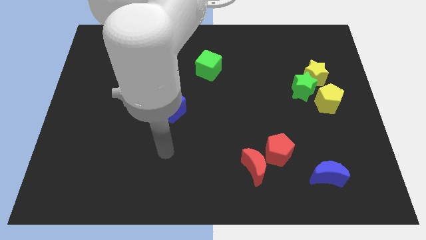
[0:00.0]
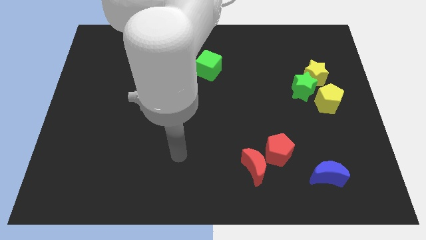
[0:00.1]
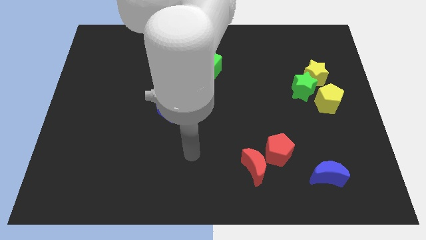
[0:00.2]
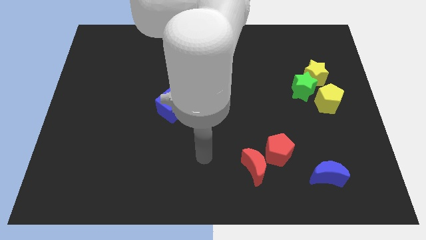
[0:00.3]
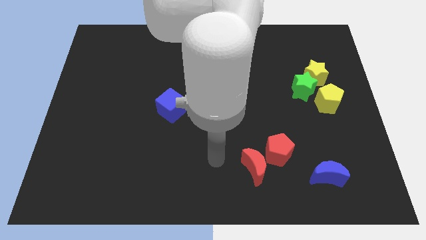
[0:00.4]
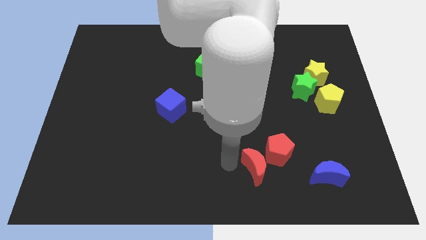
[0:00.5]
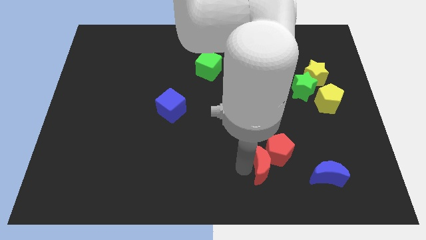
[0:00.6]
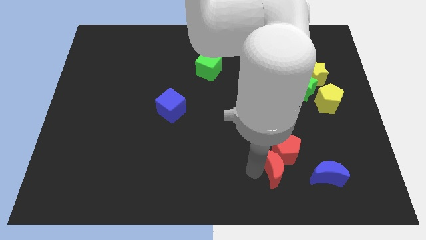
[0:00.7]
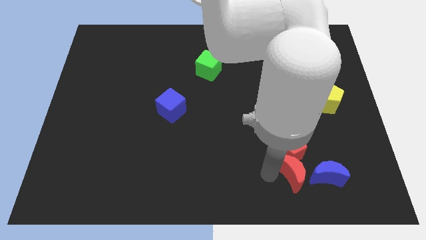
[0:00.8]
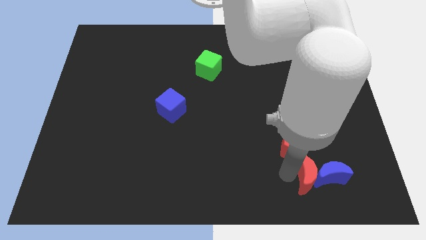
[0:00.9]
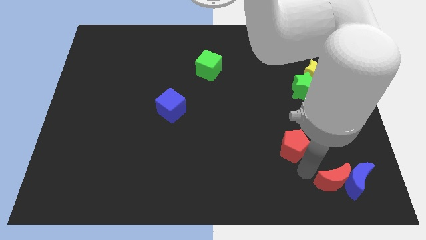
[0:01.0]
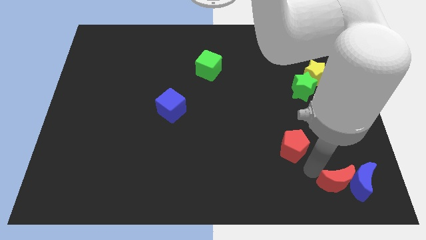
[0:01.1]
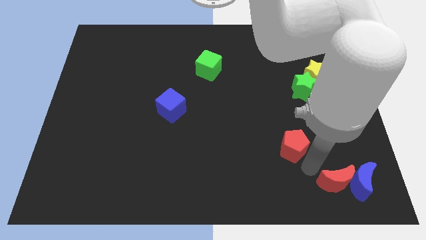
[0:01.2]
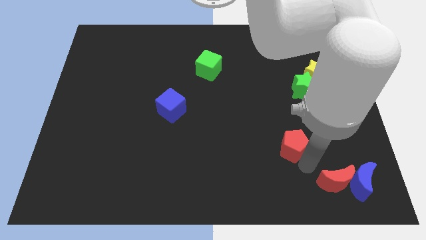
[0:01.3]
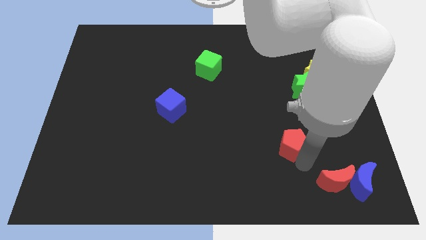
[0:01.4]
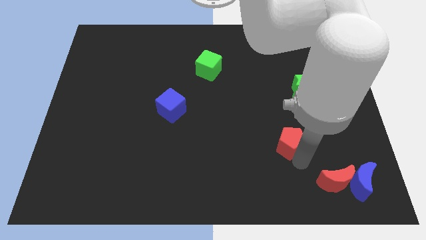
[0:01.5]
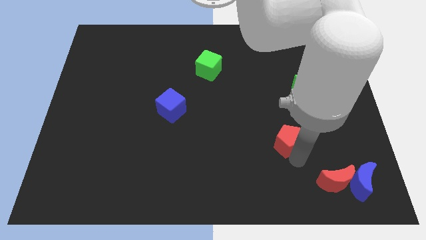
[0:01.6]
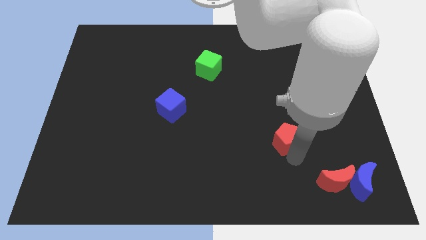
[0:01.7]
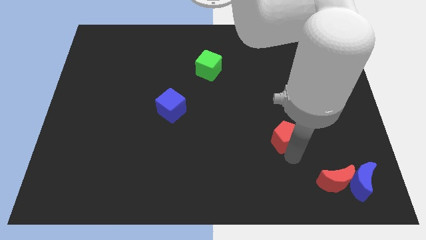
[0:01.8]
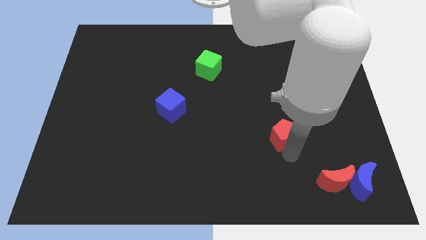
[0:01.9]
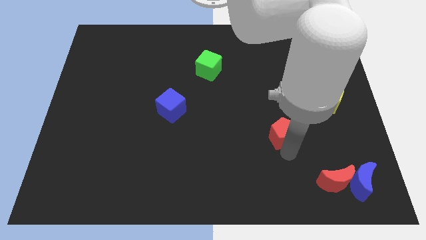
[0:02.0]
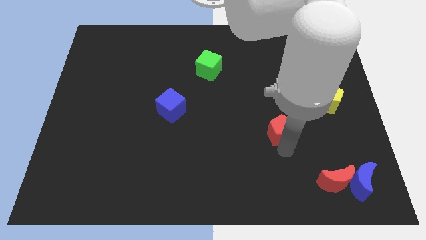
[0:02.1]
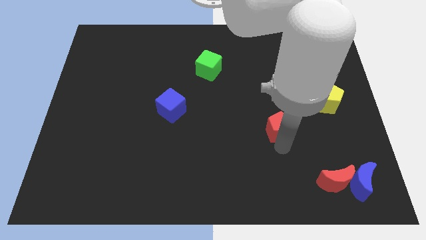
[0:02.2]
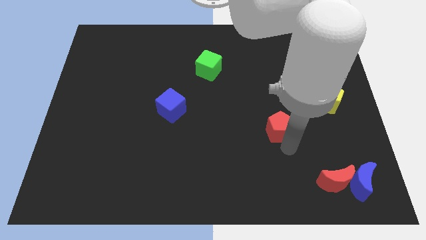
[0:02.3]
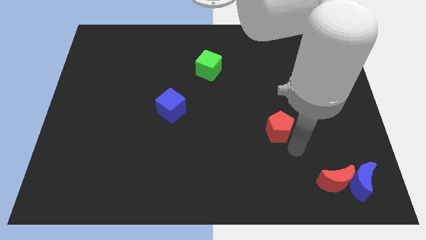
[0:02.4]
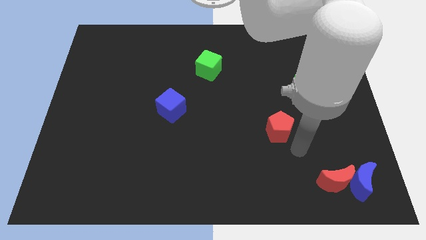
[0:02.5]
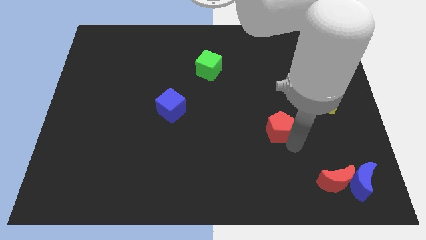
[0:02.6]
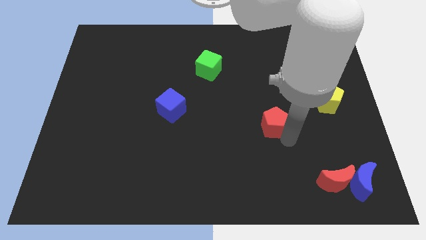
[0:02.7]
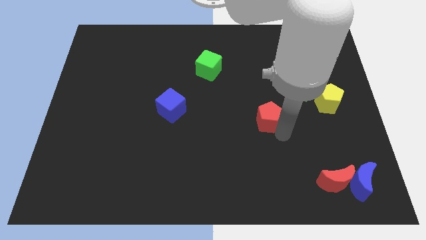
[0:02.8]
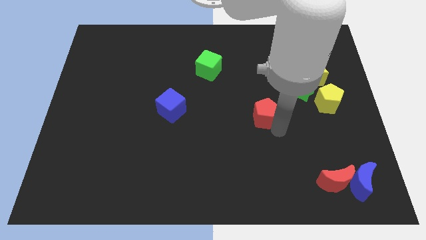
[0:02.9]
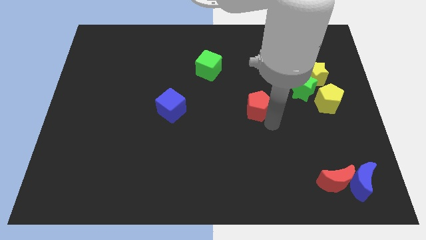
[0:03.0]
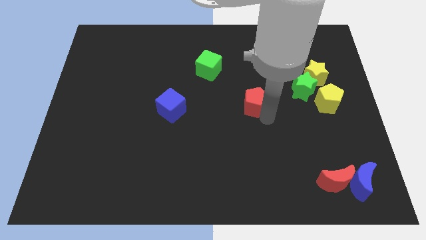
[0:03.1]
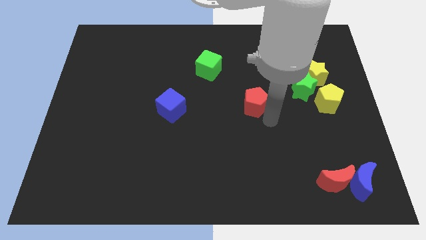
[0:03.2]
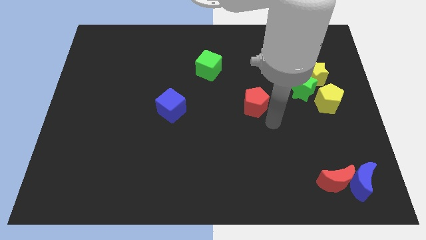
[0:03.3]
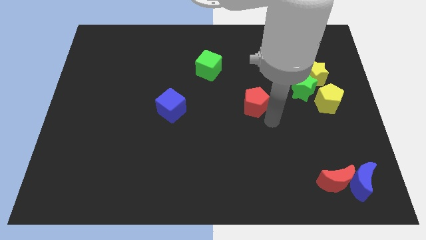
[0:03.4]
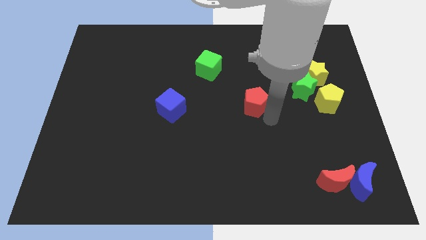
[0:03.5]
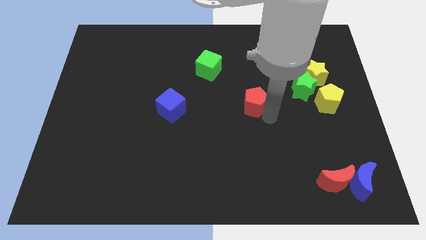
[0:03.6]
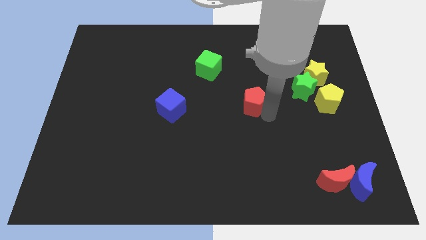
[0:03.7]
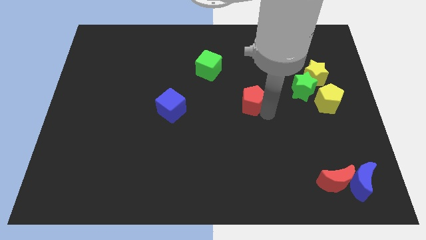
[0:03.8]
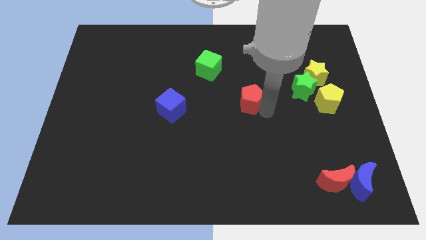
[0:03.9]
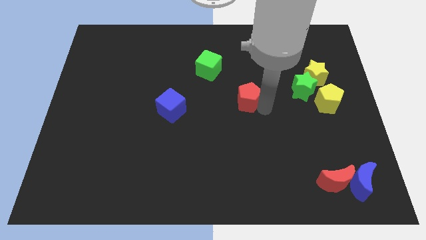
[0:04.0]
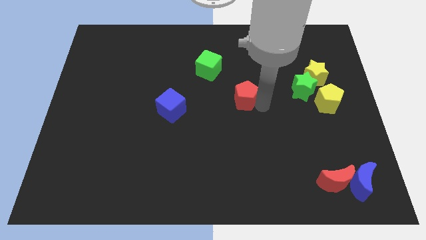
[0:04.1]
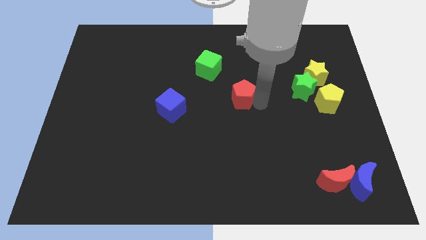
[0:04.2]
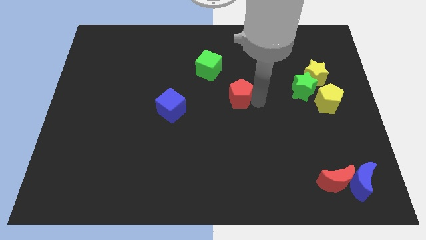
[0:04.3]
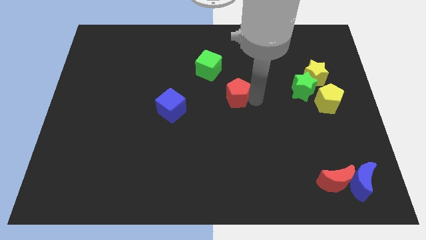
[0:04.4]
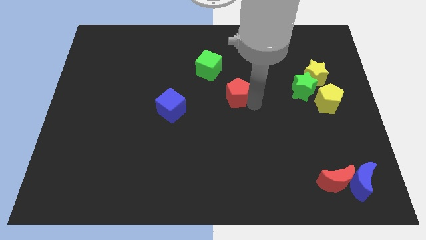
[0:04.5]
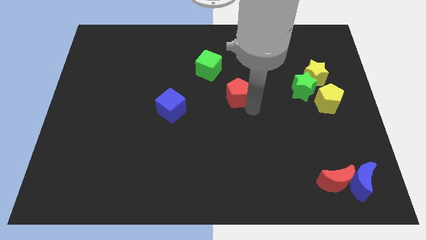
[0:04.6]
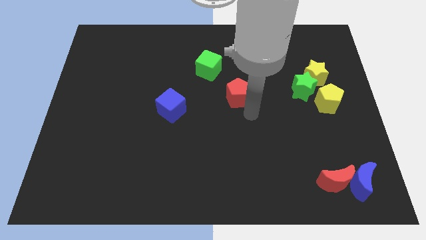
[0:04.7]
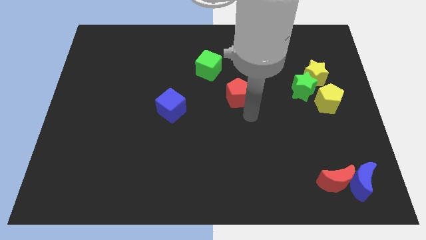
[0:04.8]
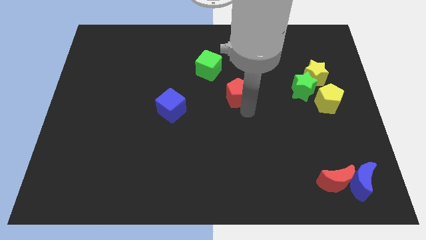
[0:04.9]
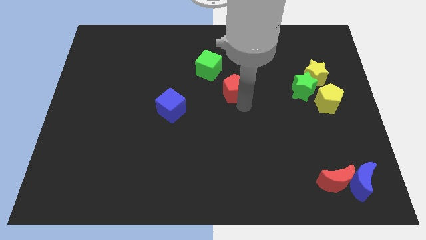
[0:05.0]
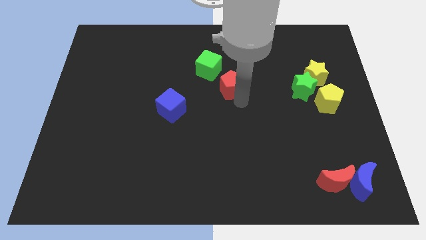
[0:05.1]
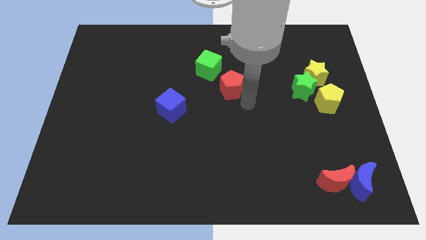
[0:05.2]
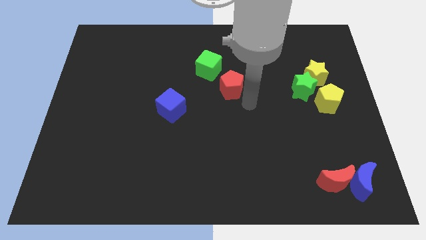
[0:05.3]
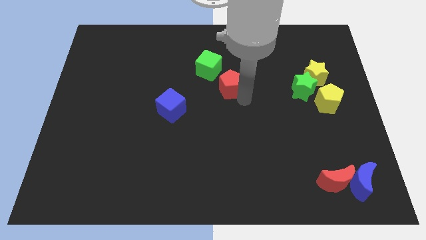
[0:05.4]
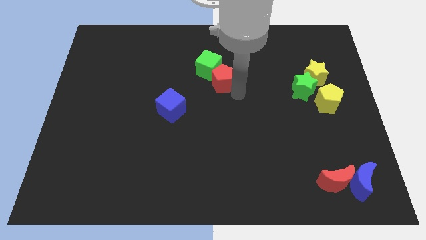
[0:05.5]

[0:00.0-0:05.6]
move the red pentagon next to the green cube

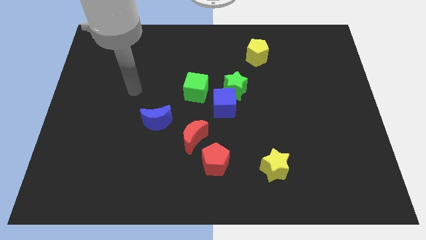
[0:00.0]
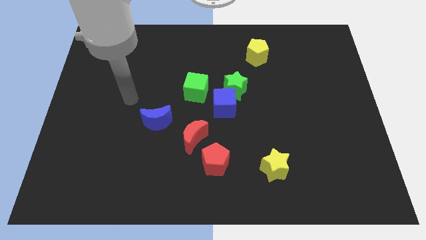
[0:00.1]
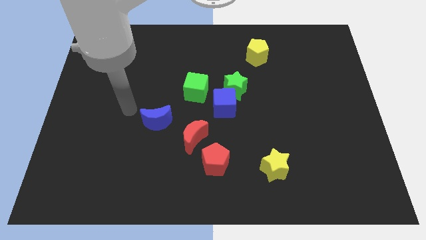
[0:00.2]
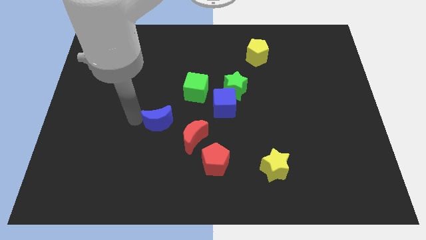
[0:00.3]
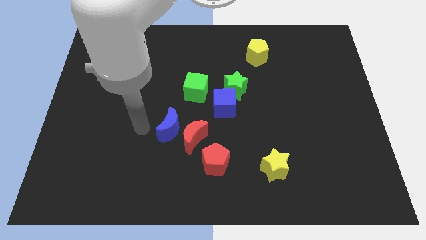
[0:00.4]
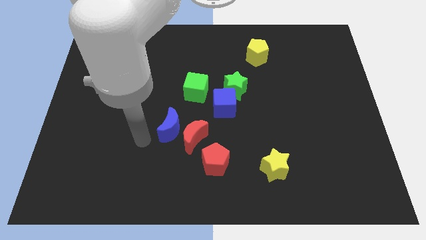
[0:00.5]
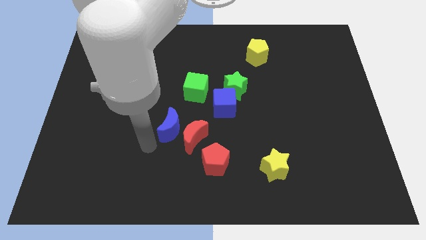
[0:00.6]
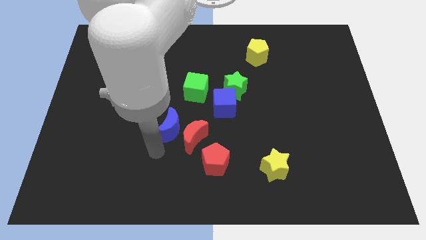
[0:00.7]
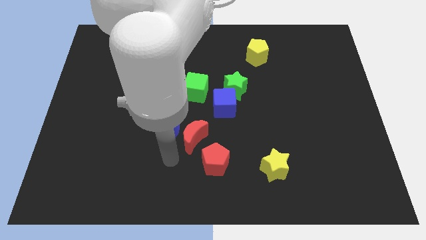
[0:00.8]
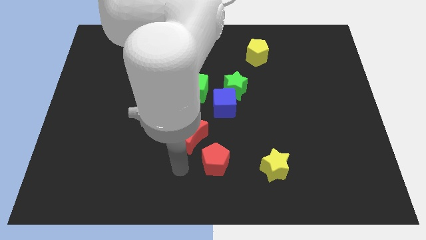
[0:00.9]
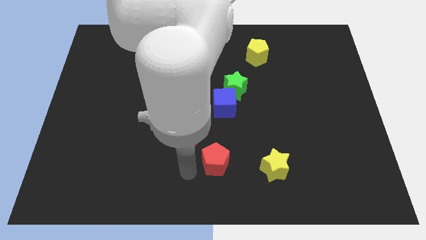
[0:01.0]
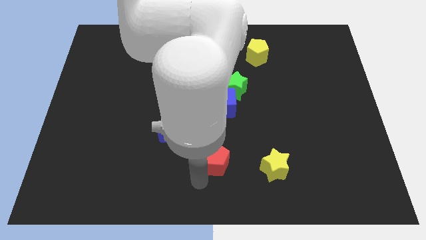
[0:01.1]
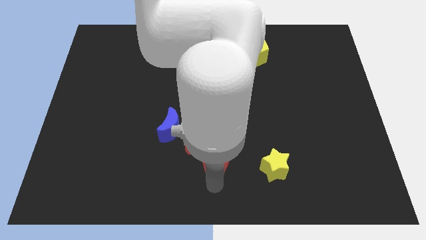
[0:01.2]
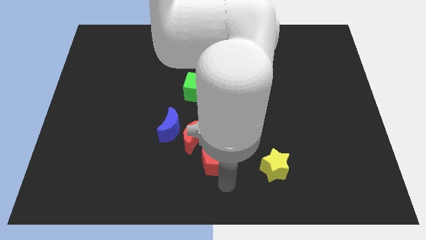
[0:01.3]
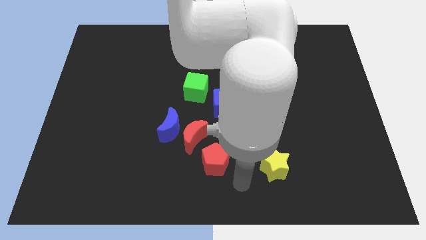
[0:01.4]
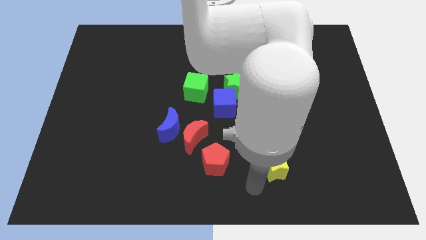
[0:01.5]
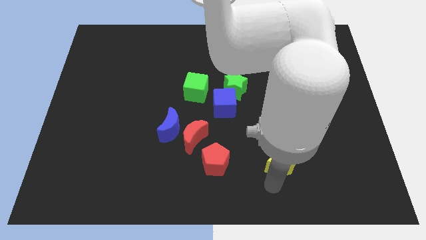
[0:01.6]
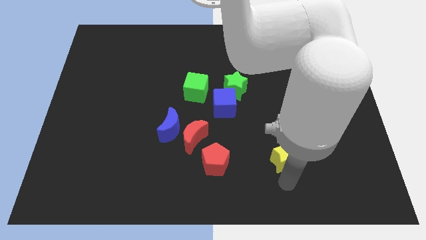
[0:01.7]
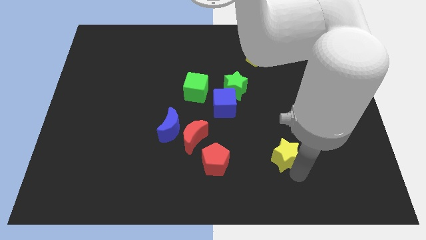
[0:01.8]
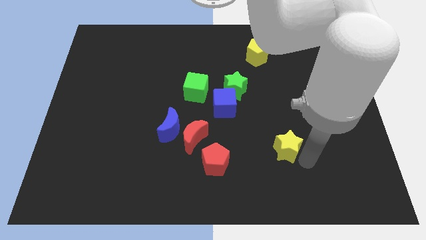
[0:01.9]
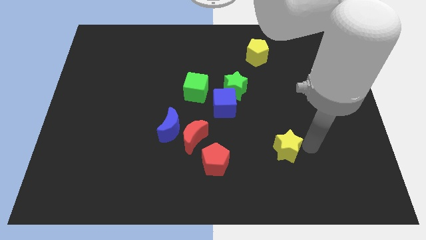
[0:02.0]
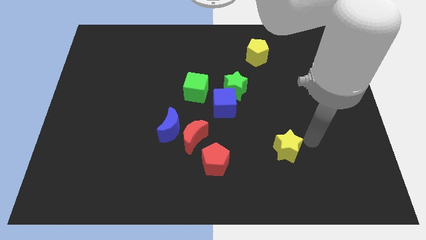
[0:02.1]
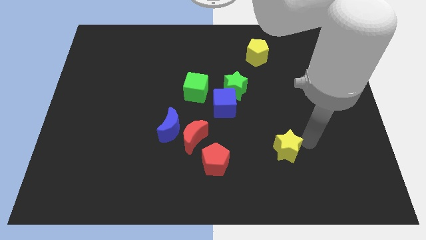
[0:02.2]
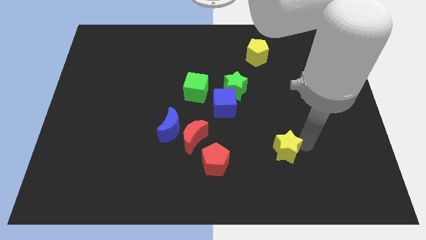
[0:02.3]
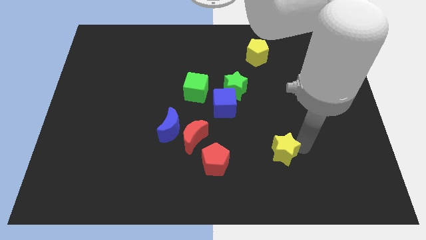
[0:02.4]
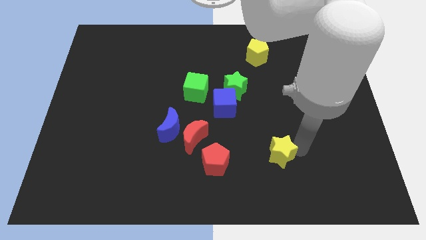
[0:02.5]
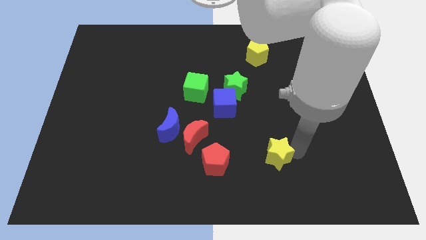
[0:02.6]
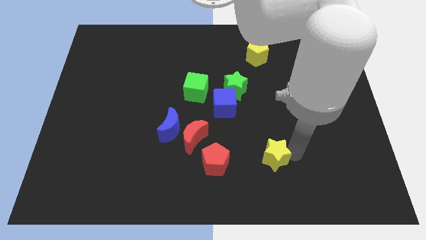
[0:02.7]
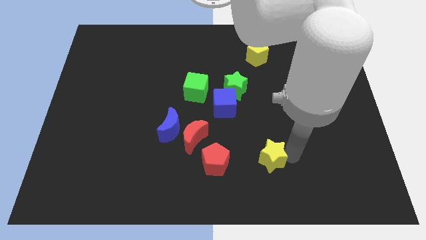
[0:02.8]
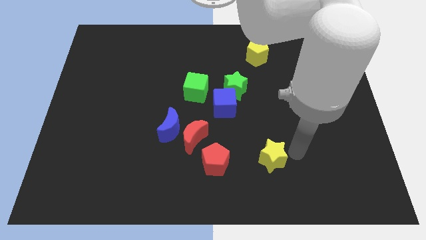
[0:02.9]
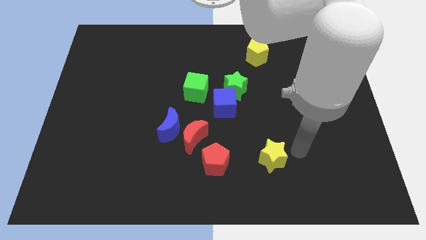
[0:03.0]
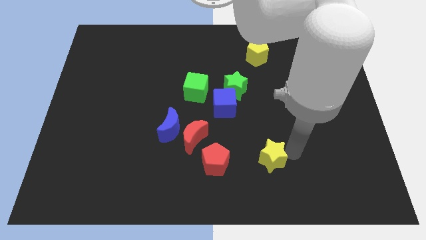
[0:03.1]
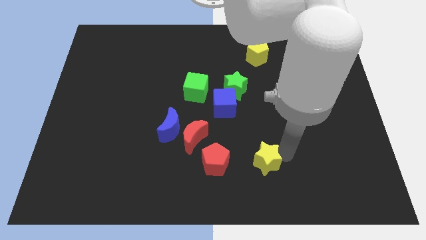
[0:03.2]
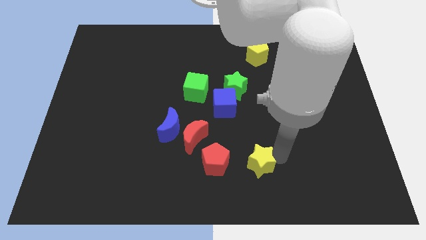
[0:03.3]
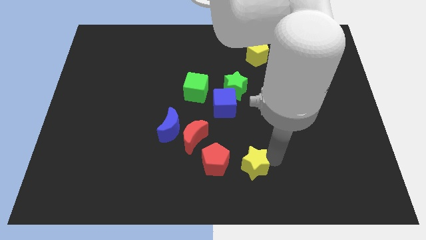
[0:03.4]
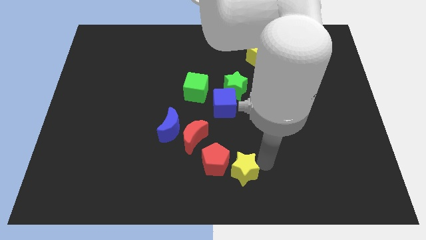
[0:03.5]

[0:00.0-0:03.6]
slide the yellow star next to the red pentagon
